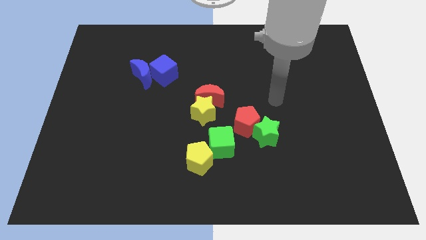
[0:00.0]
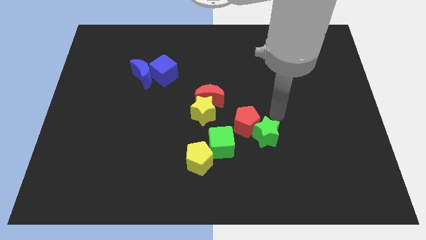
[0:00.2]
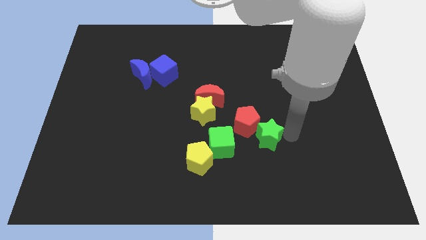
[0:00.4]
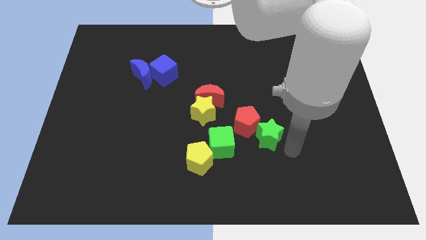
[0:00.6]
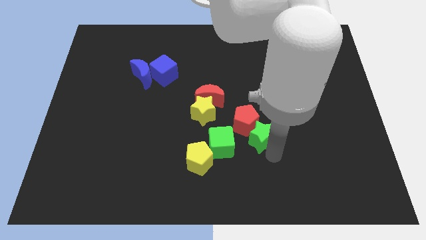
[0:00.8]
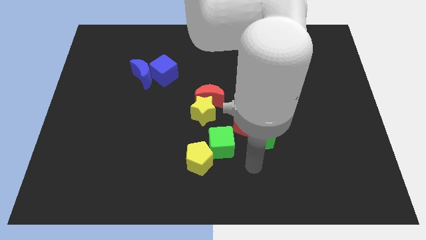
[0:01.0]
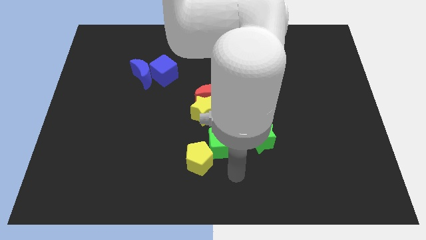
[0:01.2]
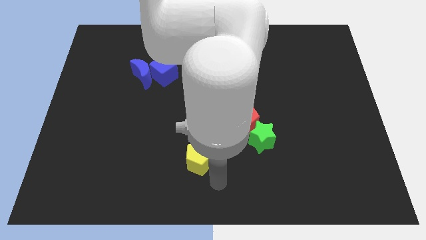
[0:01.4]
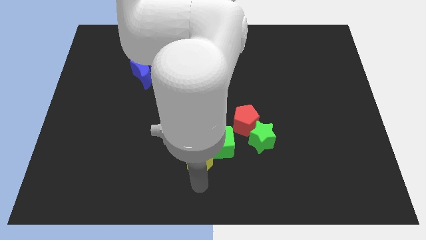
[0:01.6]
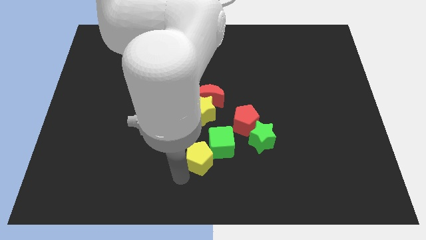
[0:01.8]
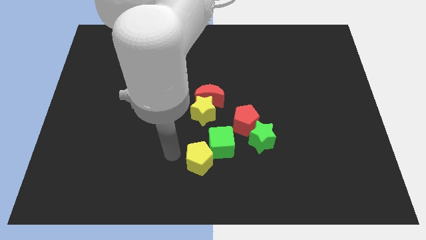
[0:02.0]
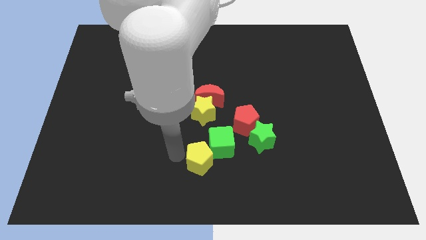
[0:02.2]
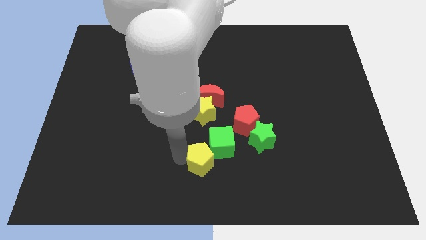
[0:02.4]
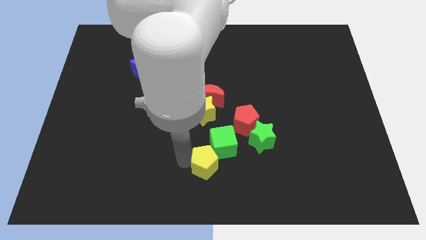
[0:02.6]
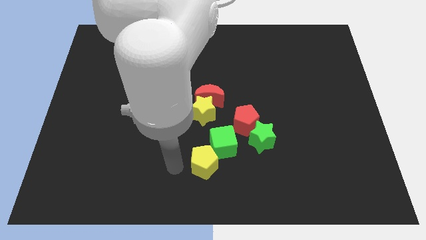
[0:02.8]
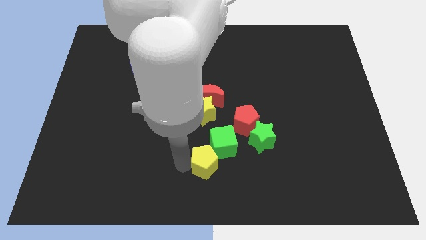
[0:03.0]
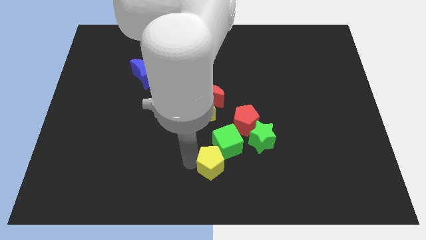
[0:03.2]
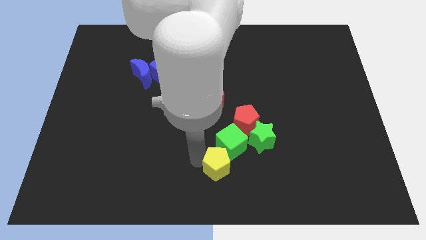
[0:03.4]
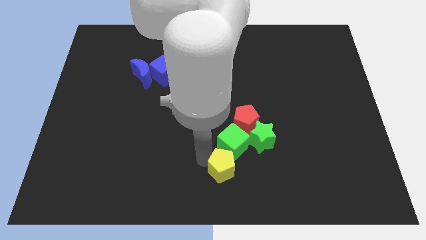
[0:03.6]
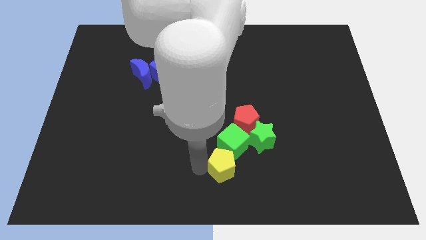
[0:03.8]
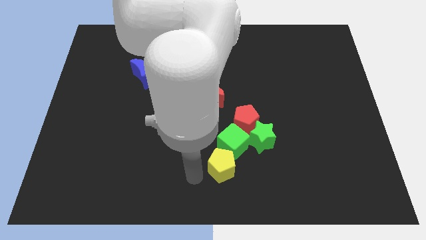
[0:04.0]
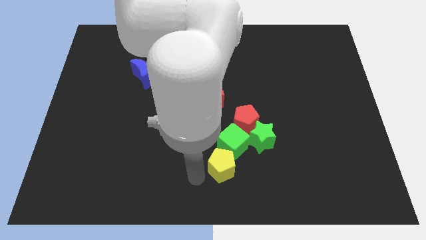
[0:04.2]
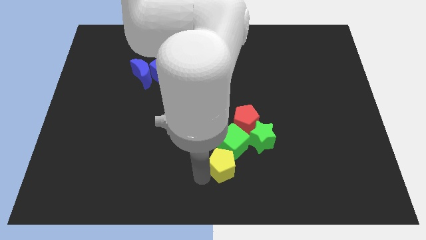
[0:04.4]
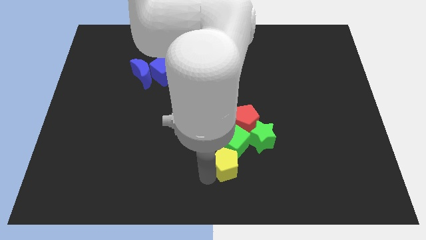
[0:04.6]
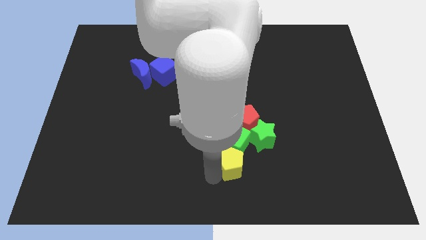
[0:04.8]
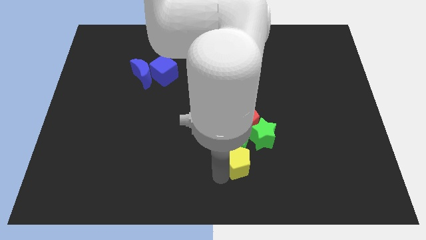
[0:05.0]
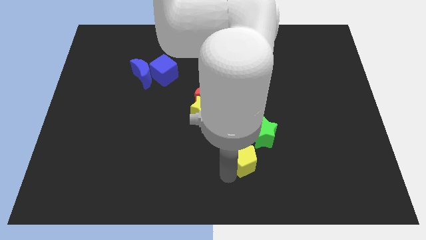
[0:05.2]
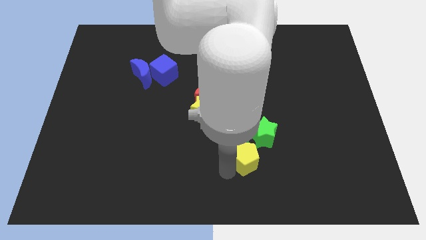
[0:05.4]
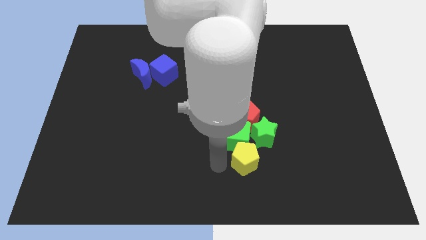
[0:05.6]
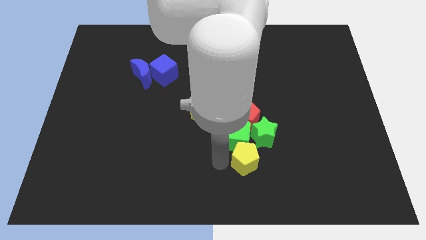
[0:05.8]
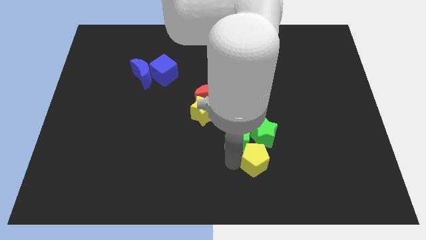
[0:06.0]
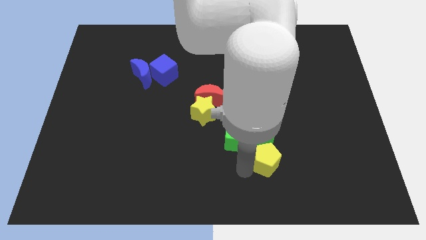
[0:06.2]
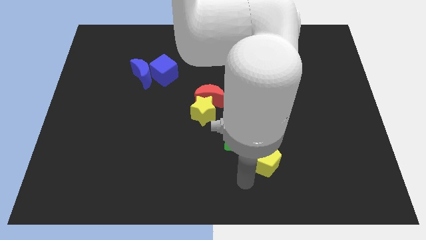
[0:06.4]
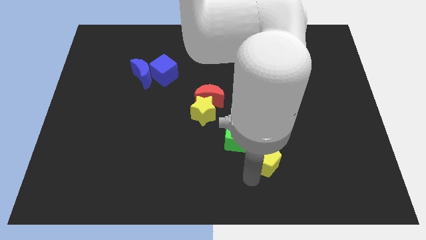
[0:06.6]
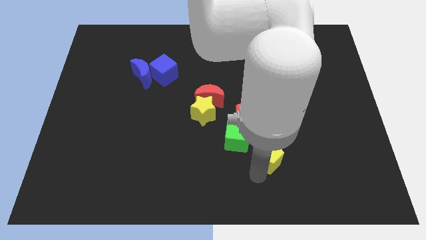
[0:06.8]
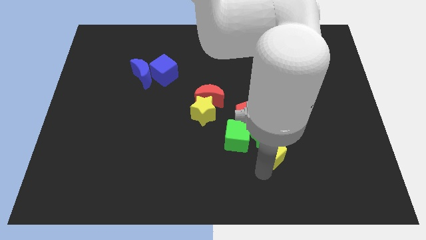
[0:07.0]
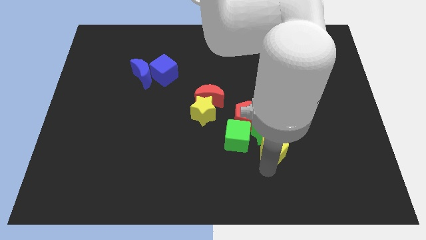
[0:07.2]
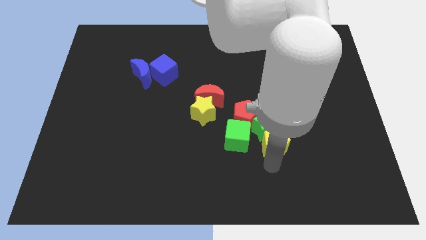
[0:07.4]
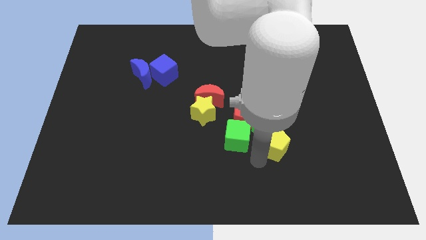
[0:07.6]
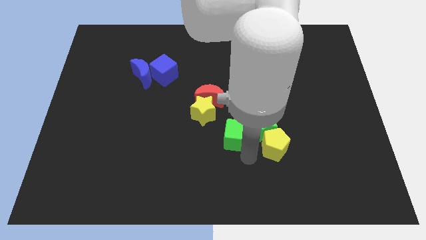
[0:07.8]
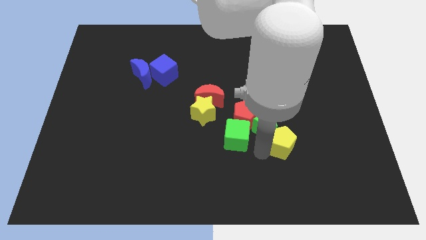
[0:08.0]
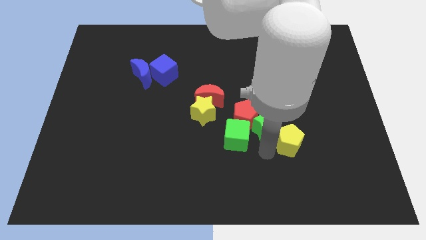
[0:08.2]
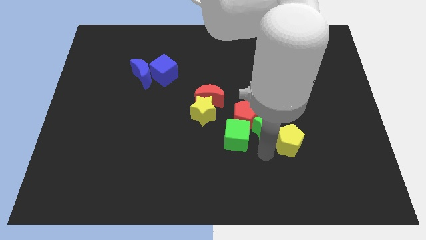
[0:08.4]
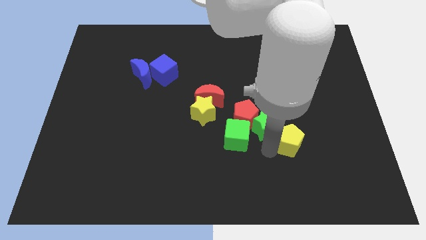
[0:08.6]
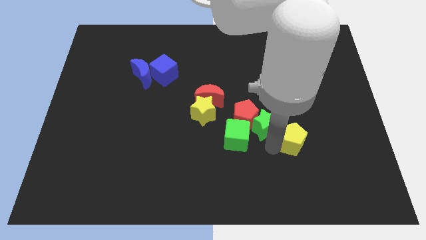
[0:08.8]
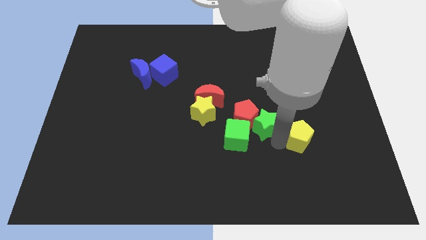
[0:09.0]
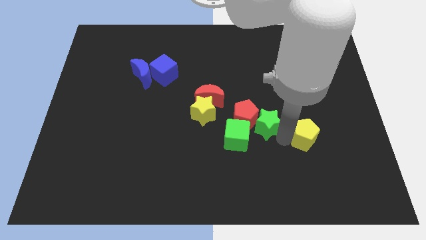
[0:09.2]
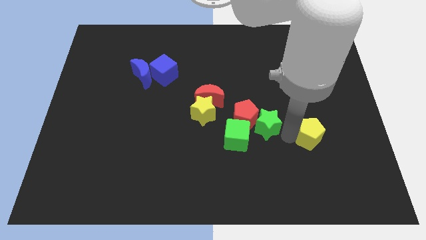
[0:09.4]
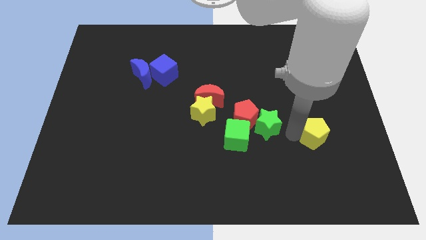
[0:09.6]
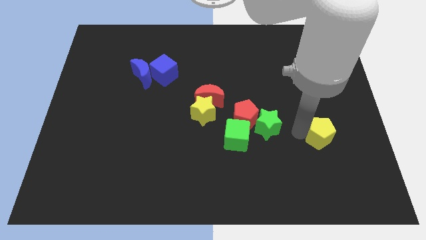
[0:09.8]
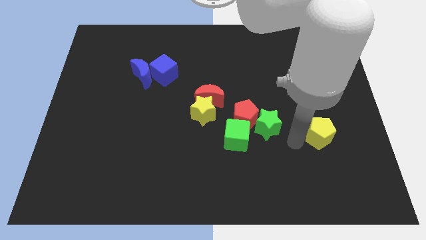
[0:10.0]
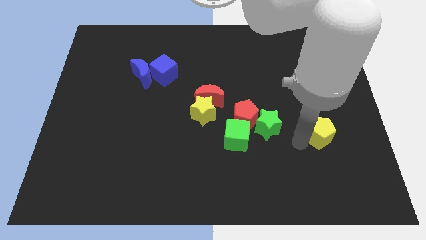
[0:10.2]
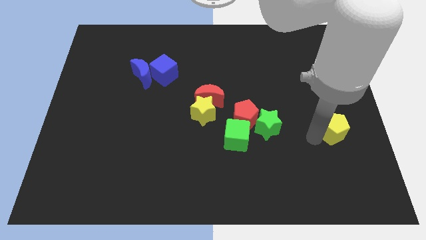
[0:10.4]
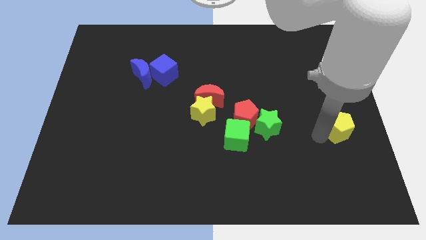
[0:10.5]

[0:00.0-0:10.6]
put the yellow pentagon to the right side of the board
